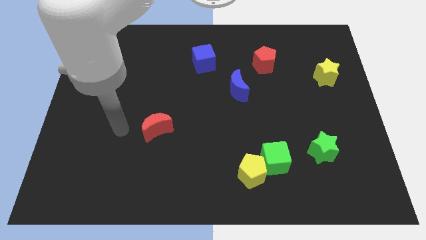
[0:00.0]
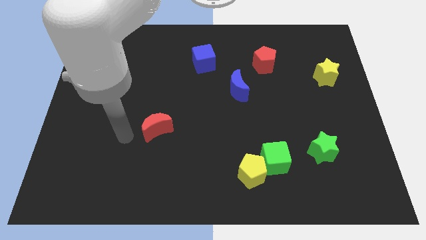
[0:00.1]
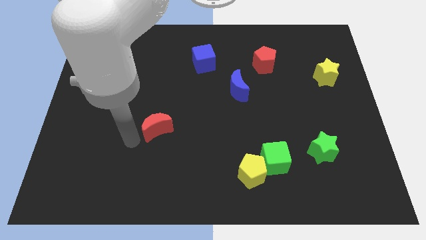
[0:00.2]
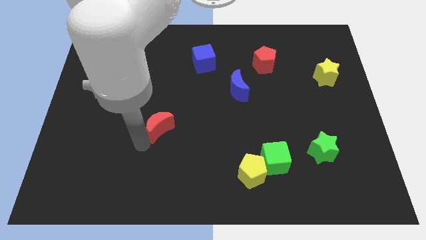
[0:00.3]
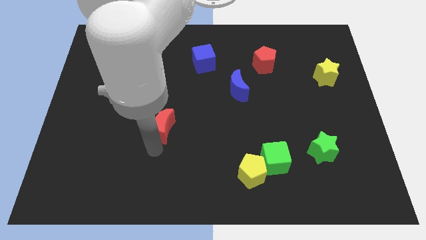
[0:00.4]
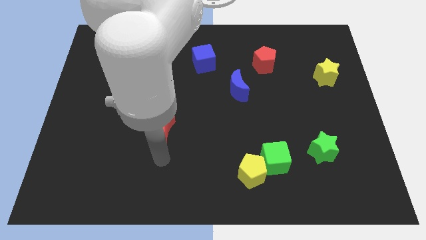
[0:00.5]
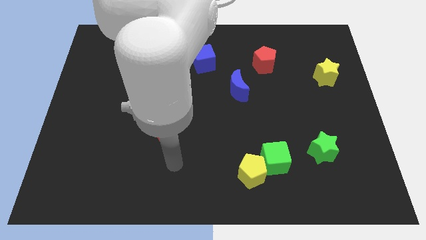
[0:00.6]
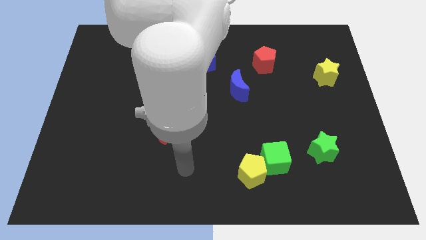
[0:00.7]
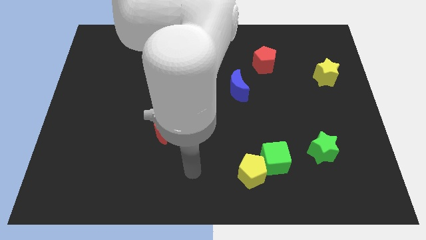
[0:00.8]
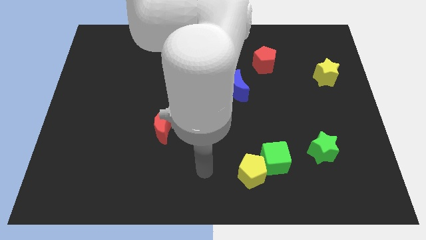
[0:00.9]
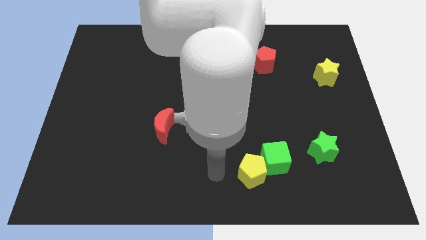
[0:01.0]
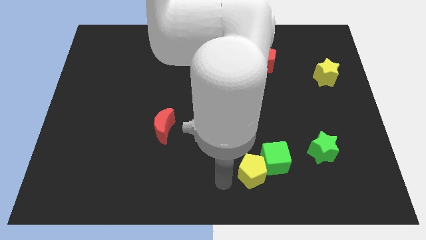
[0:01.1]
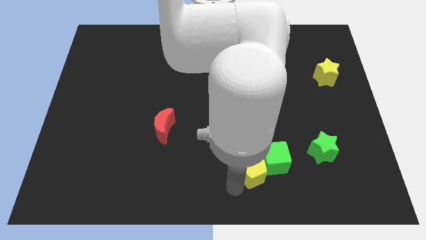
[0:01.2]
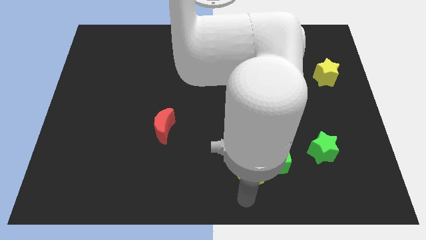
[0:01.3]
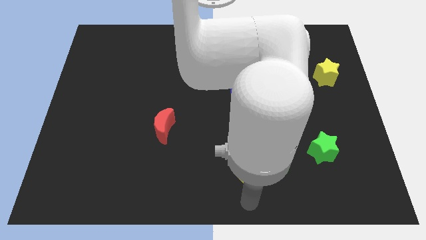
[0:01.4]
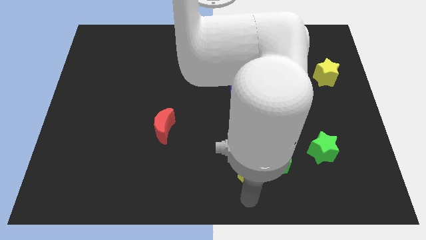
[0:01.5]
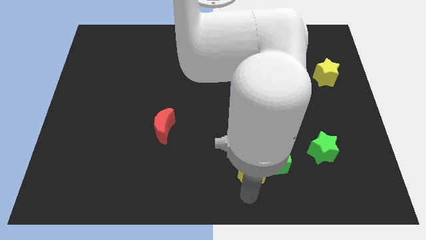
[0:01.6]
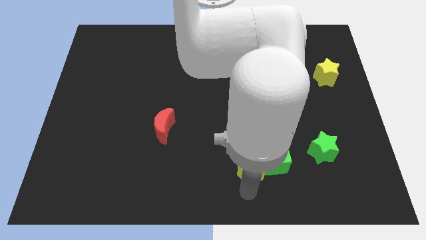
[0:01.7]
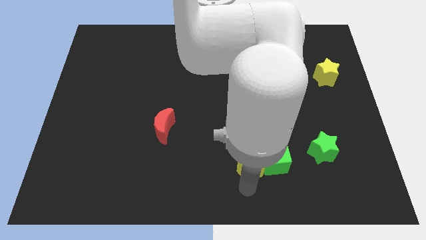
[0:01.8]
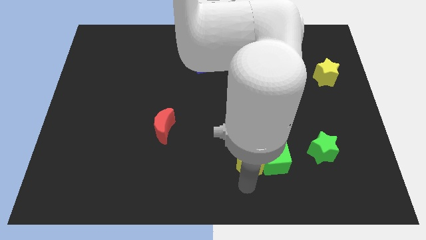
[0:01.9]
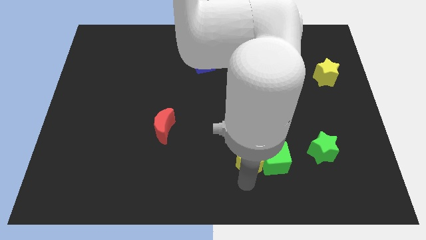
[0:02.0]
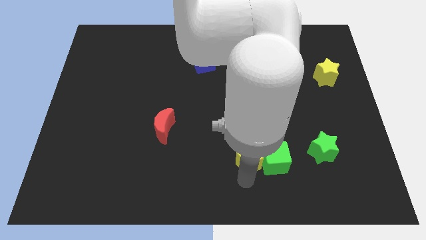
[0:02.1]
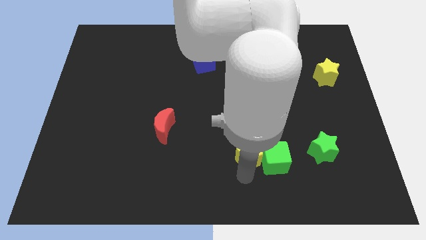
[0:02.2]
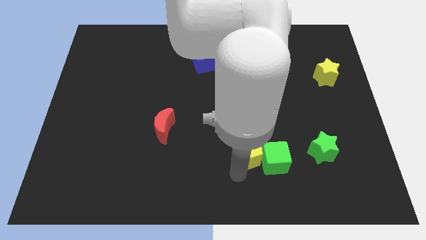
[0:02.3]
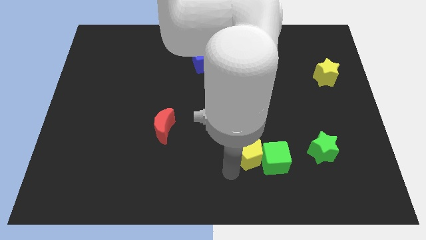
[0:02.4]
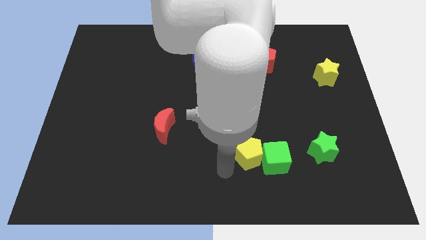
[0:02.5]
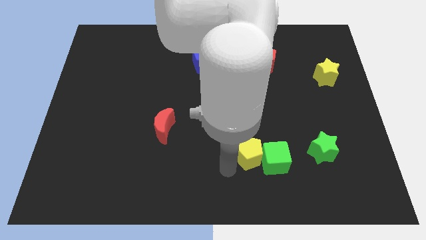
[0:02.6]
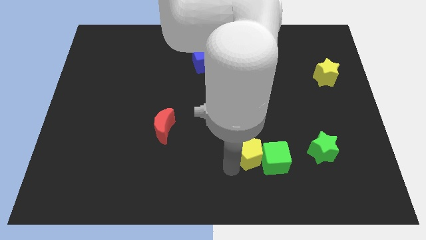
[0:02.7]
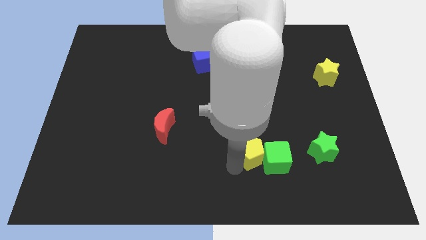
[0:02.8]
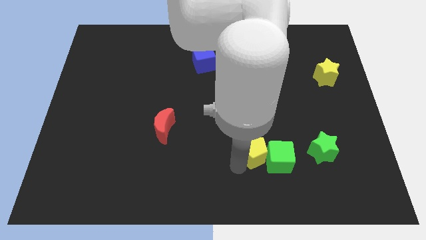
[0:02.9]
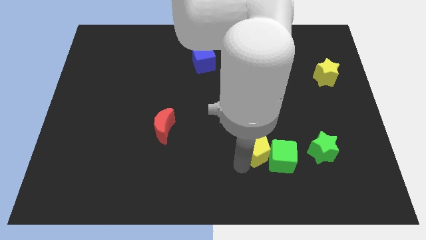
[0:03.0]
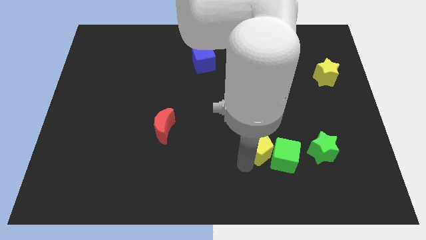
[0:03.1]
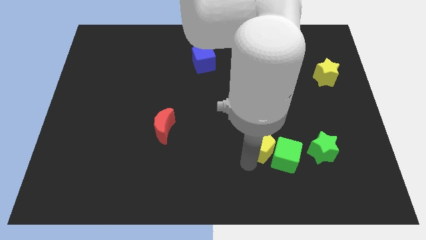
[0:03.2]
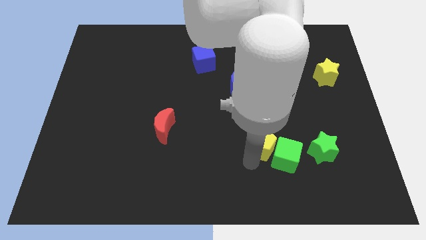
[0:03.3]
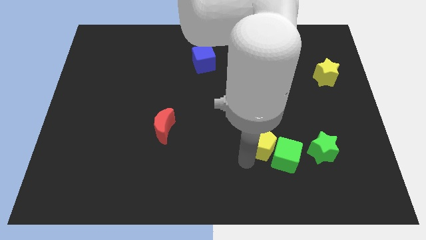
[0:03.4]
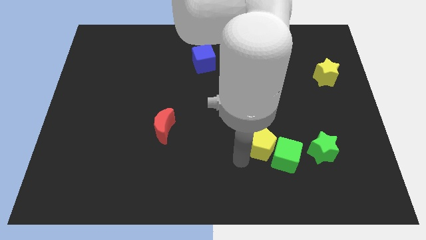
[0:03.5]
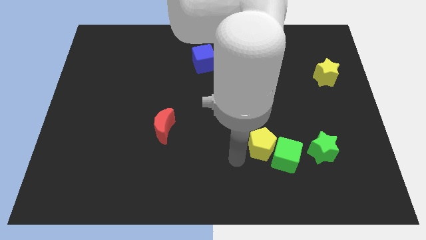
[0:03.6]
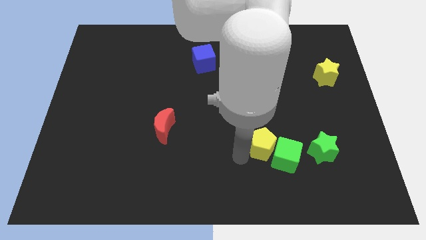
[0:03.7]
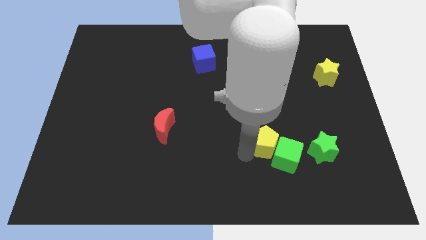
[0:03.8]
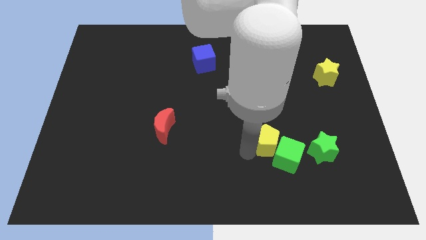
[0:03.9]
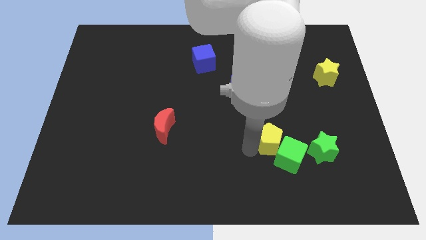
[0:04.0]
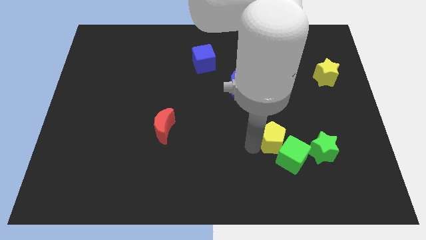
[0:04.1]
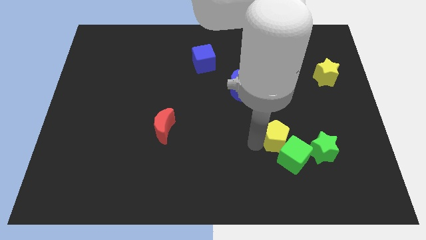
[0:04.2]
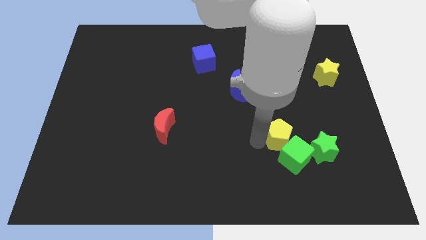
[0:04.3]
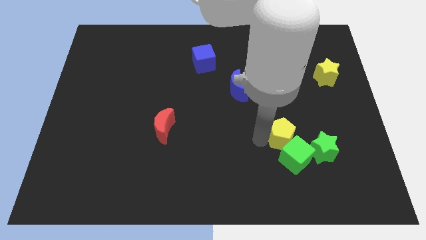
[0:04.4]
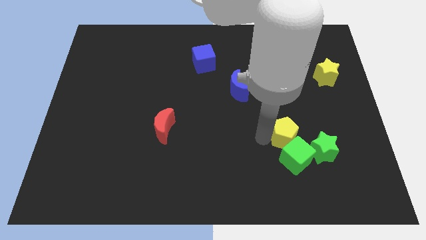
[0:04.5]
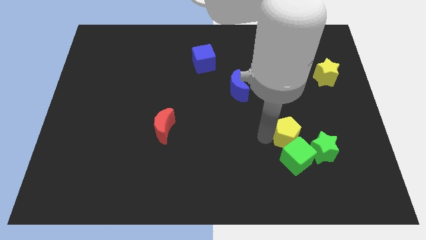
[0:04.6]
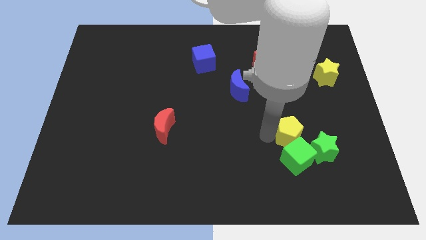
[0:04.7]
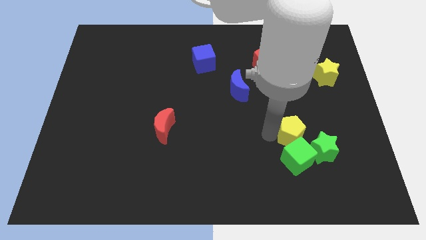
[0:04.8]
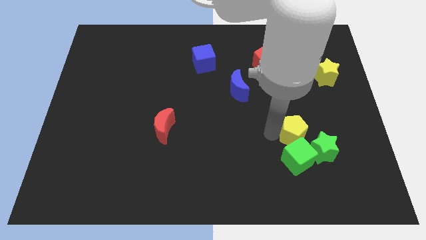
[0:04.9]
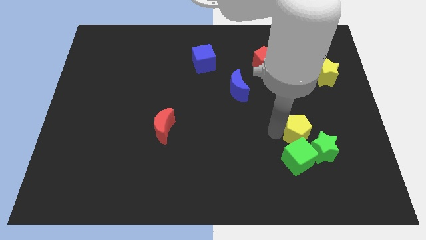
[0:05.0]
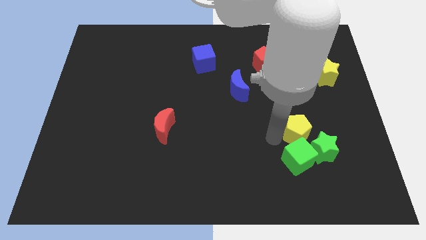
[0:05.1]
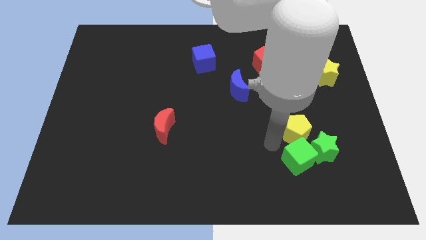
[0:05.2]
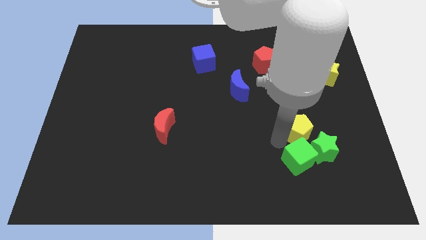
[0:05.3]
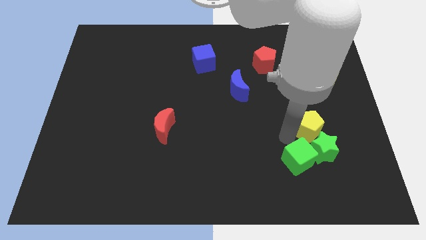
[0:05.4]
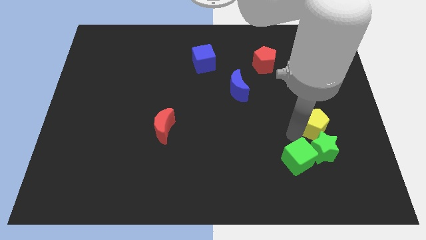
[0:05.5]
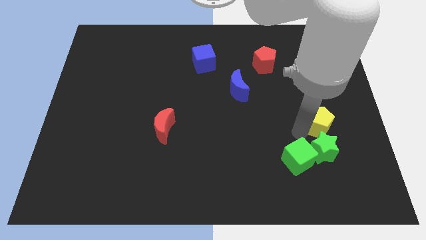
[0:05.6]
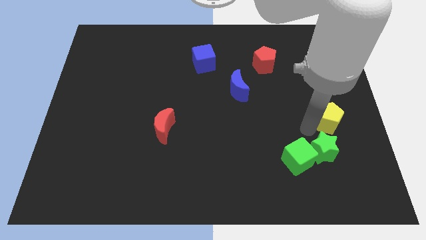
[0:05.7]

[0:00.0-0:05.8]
put the yellow pentagon to the center right

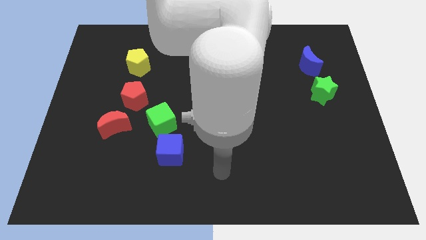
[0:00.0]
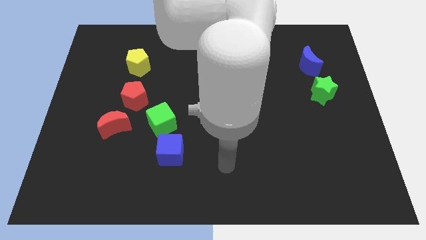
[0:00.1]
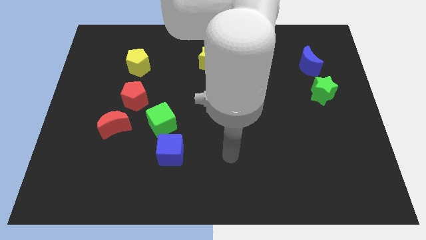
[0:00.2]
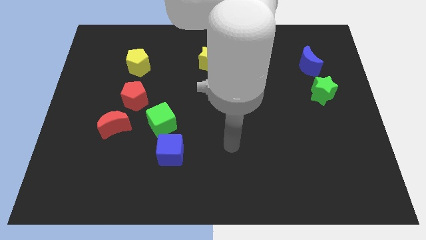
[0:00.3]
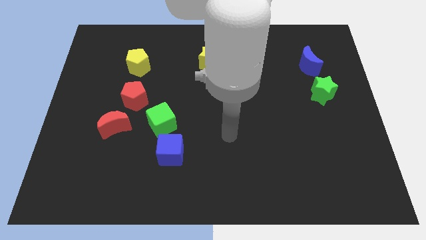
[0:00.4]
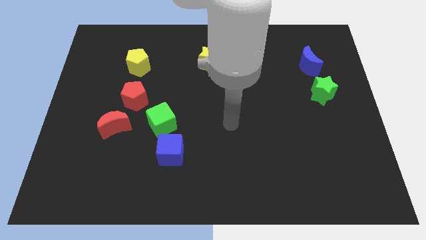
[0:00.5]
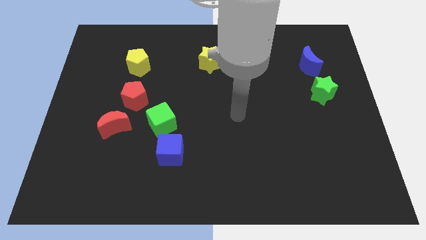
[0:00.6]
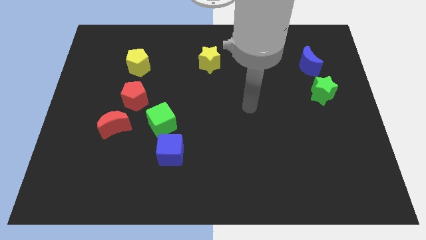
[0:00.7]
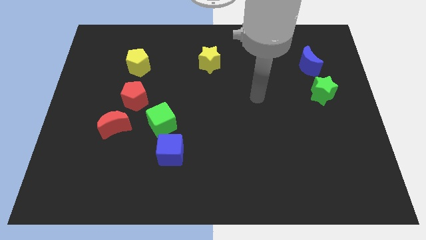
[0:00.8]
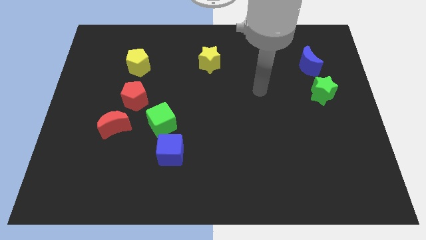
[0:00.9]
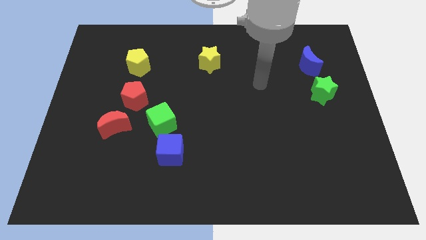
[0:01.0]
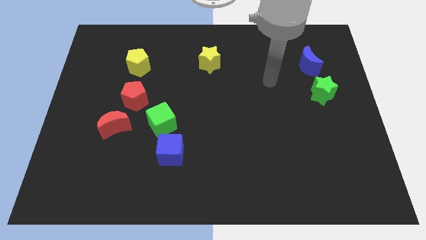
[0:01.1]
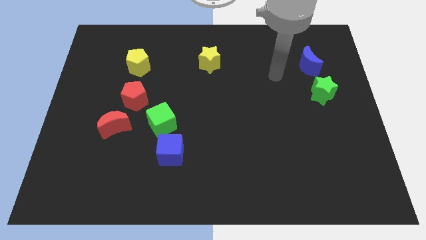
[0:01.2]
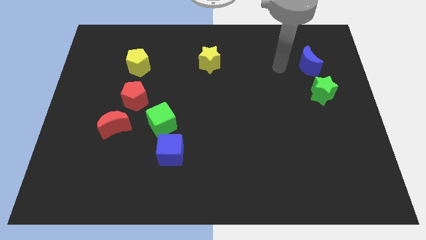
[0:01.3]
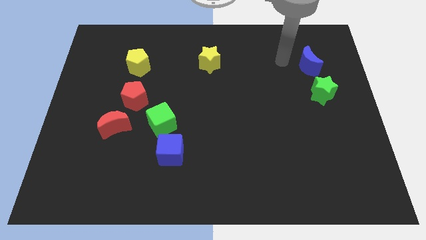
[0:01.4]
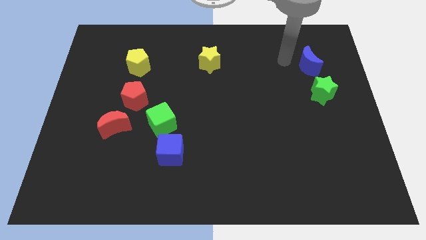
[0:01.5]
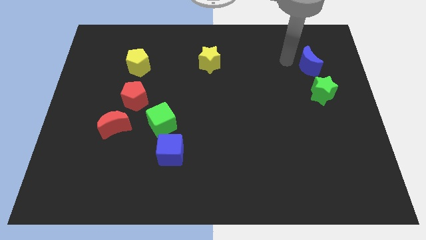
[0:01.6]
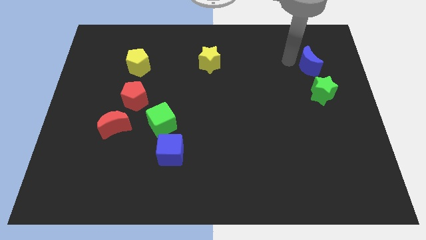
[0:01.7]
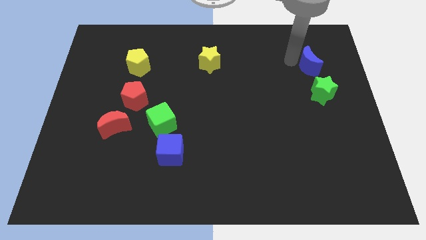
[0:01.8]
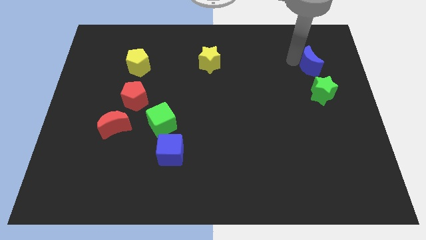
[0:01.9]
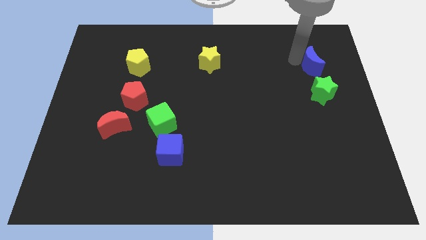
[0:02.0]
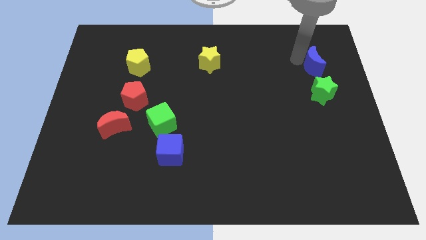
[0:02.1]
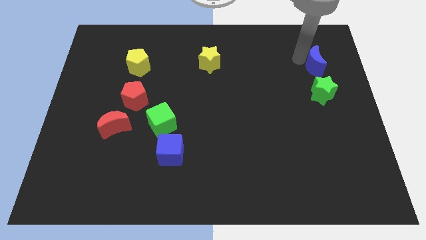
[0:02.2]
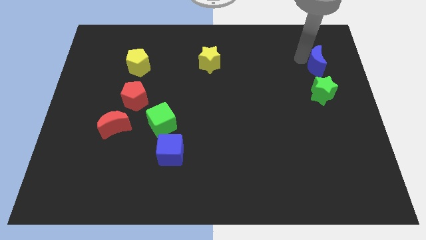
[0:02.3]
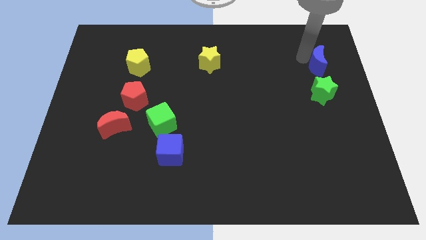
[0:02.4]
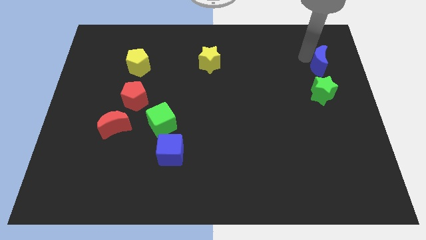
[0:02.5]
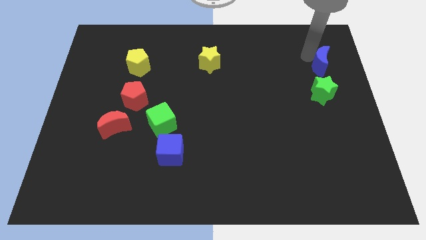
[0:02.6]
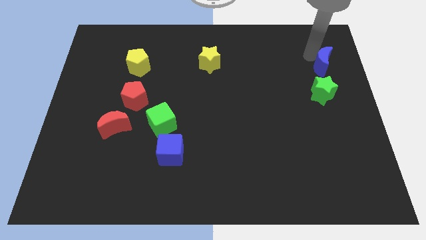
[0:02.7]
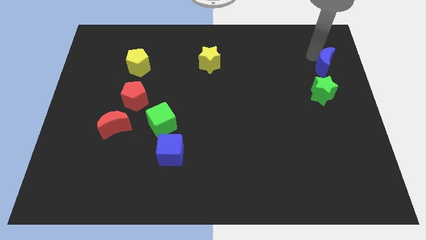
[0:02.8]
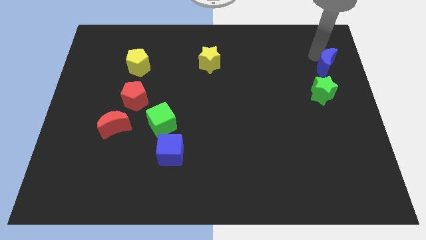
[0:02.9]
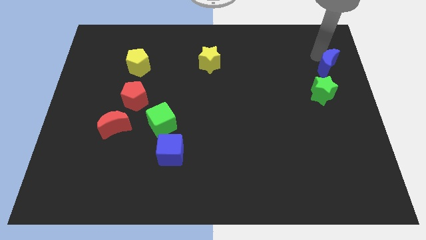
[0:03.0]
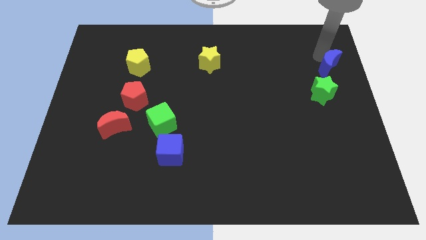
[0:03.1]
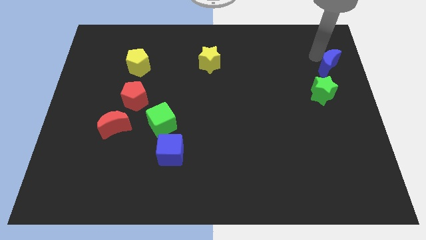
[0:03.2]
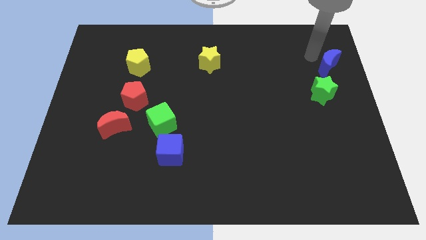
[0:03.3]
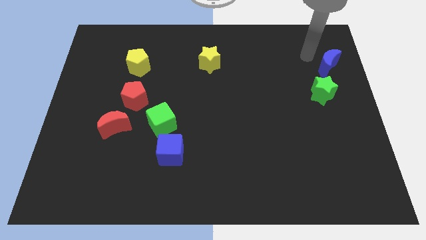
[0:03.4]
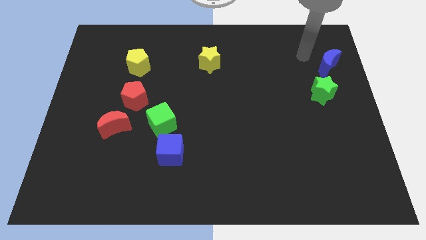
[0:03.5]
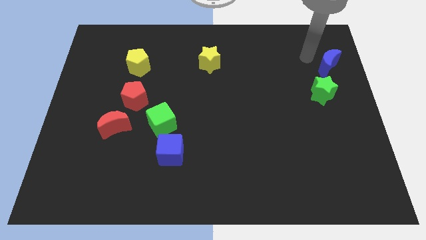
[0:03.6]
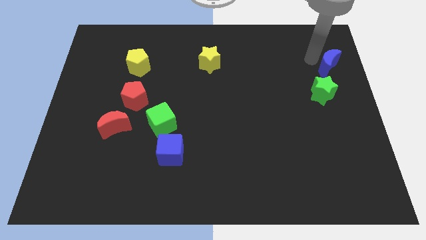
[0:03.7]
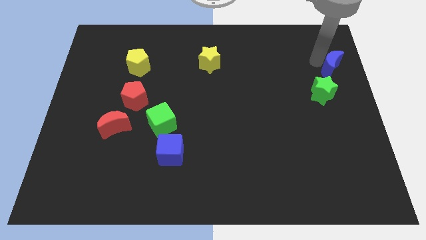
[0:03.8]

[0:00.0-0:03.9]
slide the blue moon to the right side
